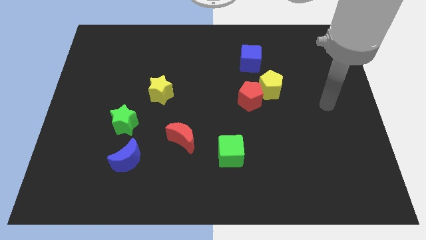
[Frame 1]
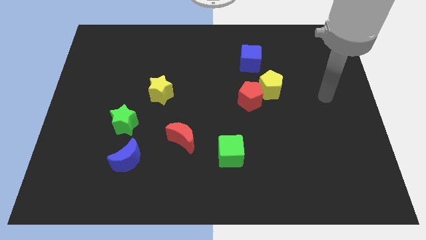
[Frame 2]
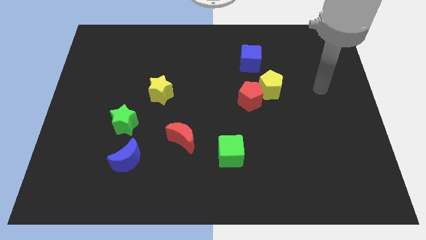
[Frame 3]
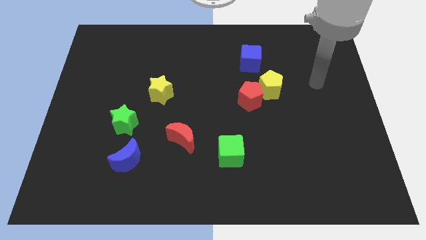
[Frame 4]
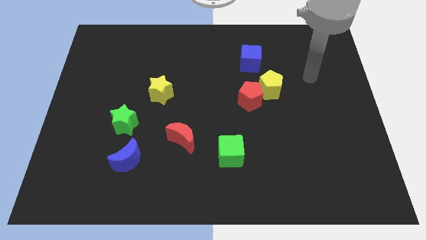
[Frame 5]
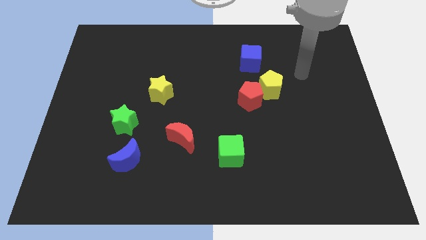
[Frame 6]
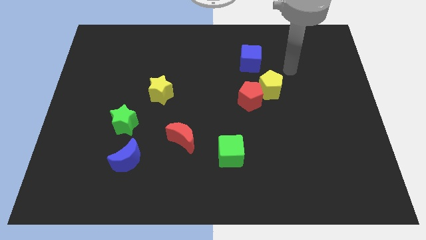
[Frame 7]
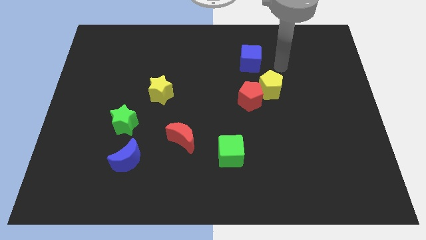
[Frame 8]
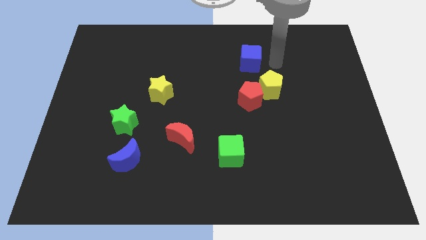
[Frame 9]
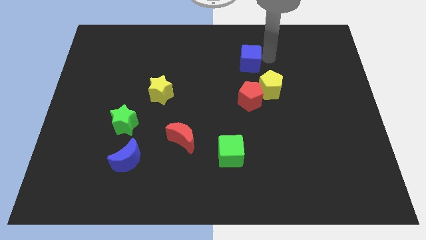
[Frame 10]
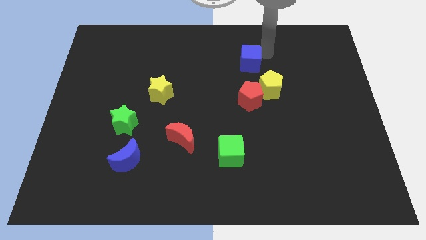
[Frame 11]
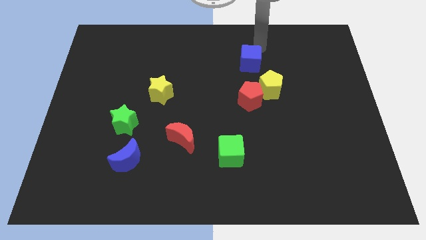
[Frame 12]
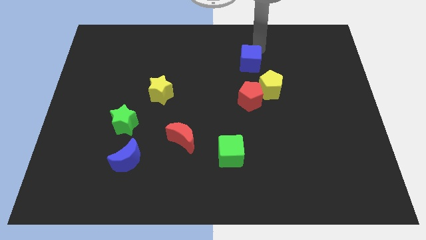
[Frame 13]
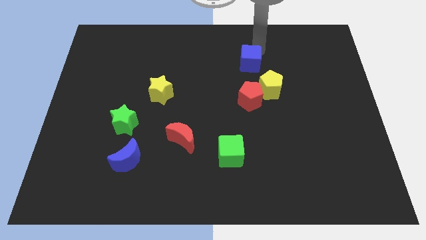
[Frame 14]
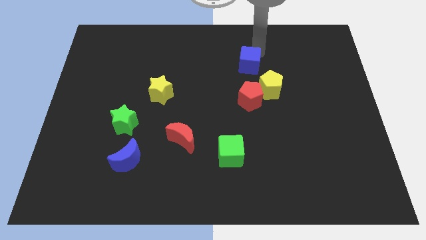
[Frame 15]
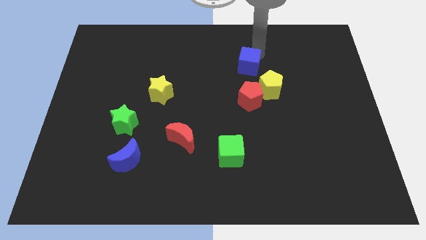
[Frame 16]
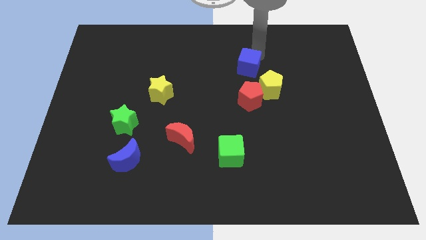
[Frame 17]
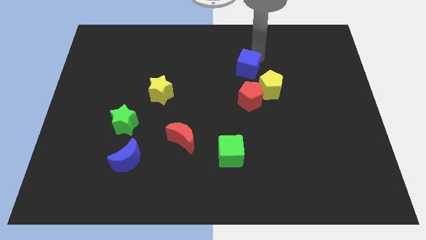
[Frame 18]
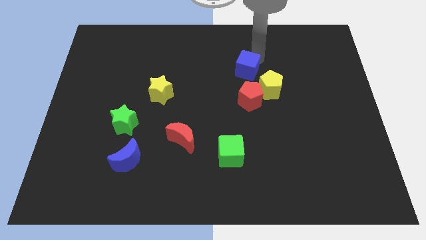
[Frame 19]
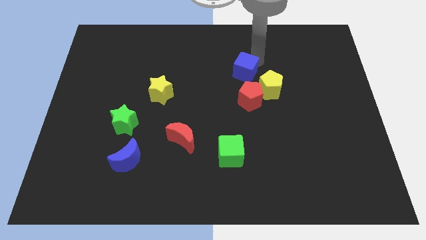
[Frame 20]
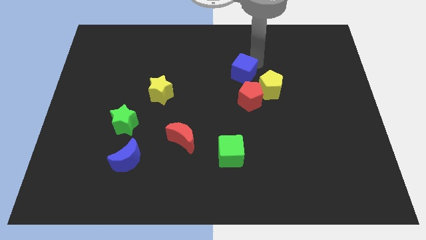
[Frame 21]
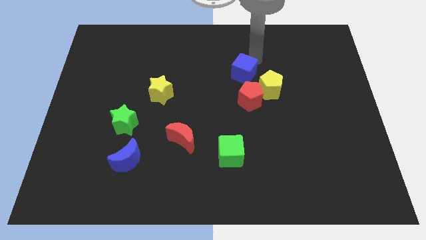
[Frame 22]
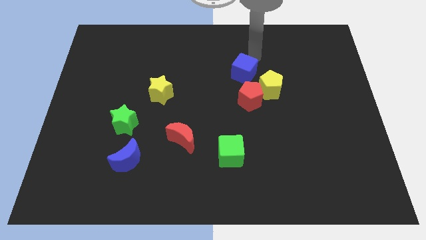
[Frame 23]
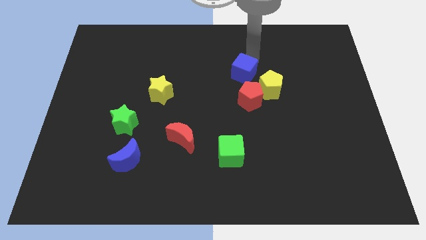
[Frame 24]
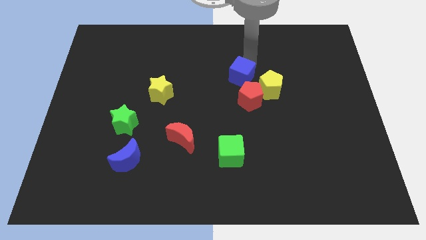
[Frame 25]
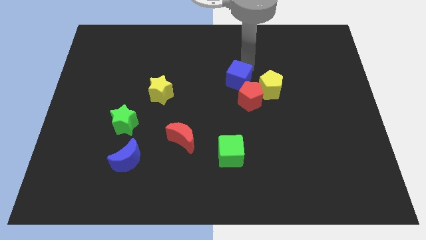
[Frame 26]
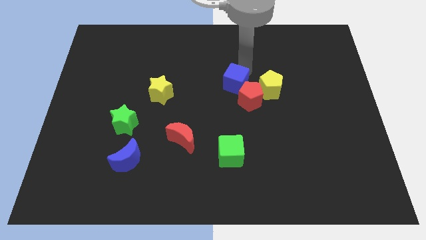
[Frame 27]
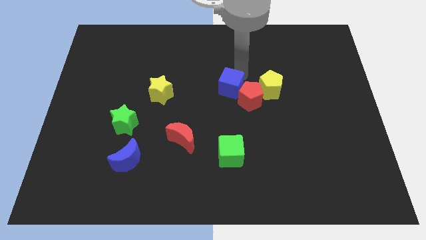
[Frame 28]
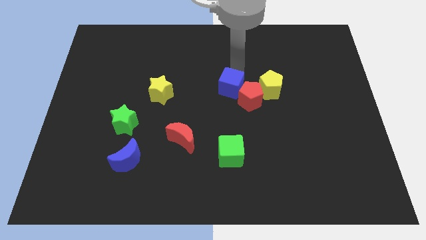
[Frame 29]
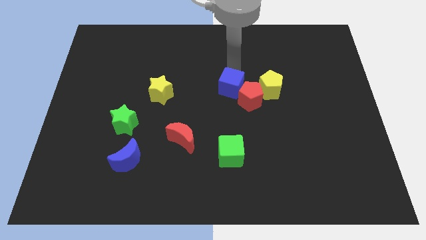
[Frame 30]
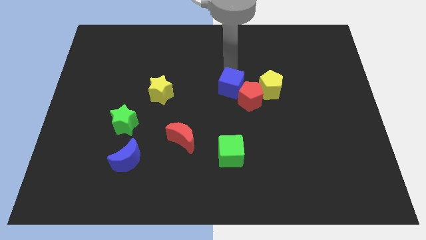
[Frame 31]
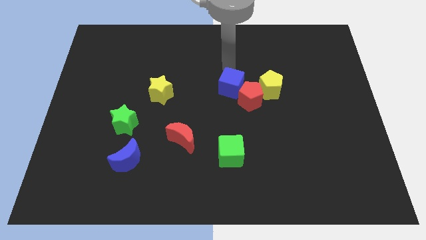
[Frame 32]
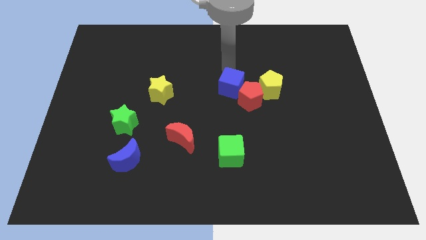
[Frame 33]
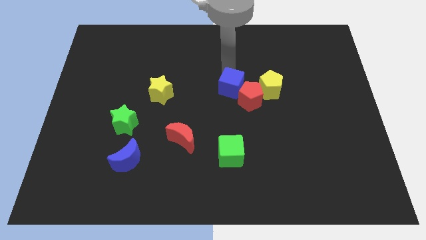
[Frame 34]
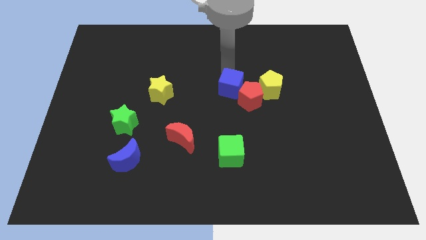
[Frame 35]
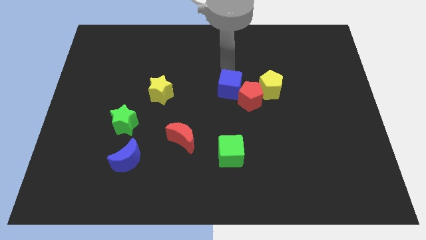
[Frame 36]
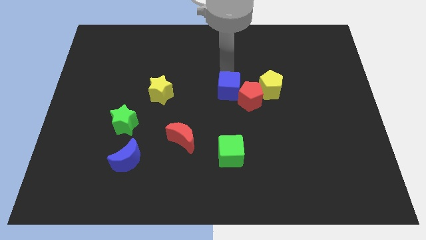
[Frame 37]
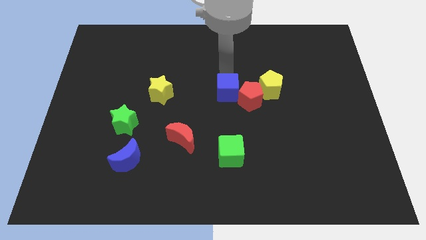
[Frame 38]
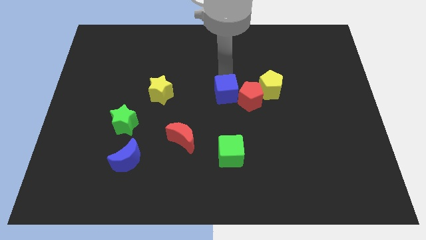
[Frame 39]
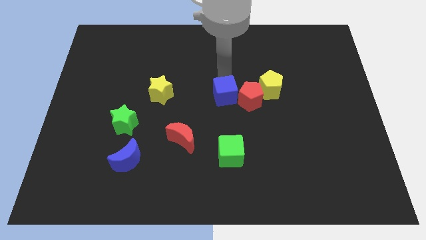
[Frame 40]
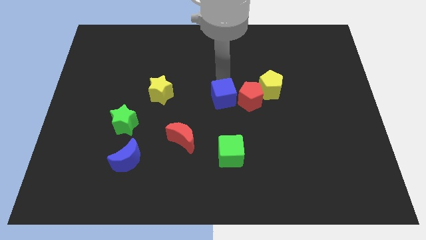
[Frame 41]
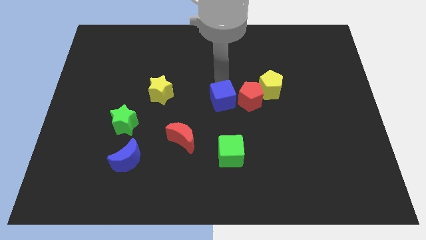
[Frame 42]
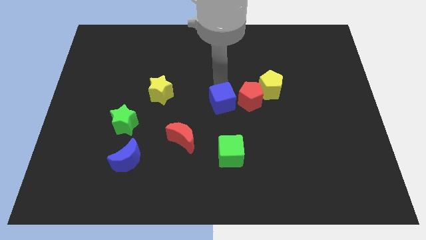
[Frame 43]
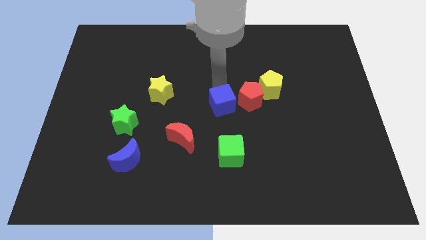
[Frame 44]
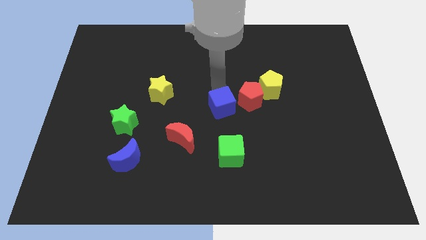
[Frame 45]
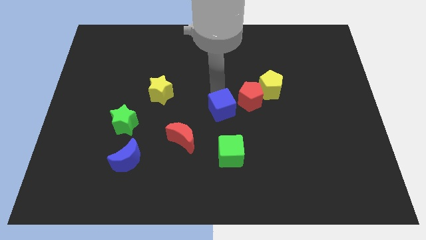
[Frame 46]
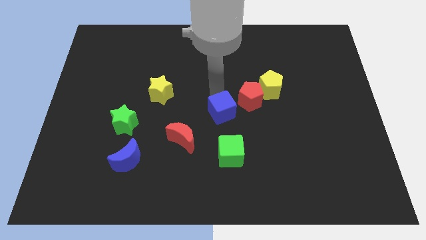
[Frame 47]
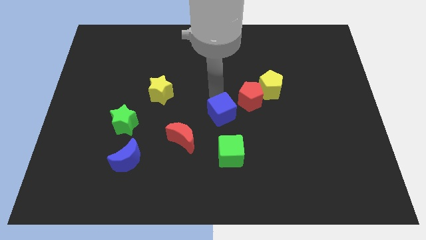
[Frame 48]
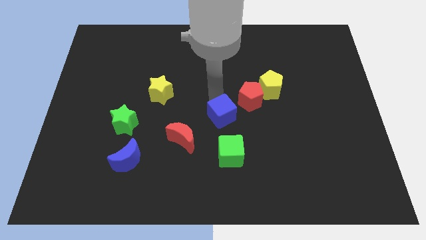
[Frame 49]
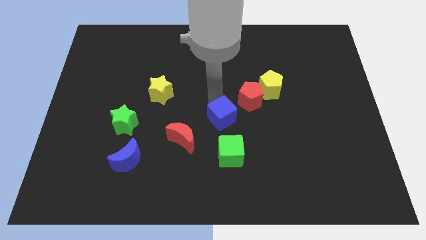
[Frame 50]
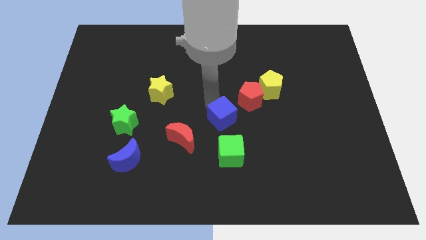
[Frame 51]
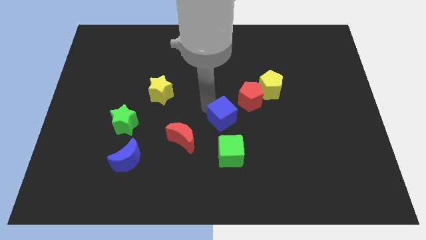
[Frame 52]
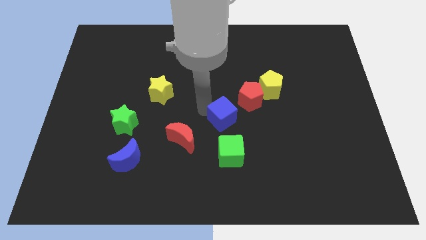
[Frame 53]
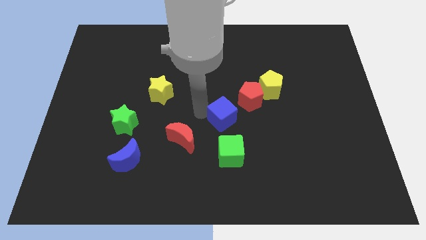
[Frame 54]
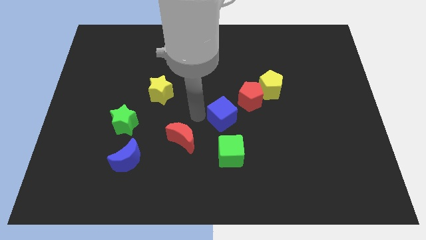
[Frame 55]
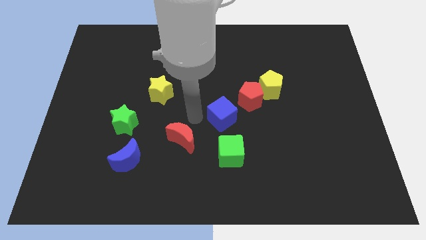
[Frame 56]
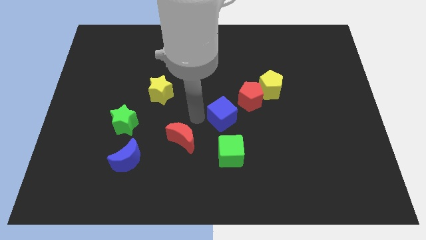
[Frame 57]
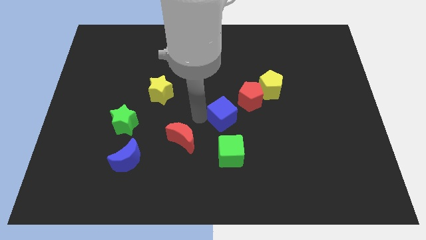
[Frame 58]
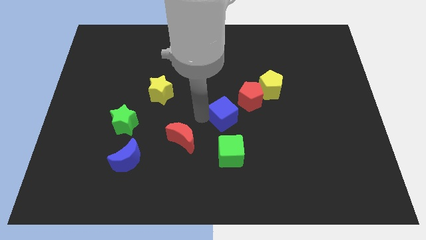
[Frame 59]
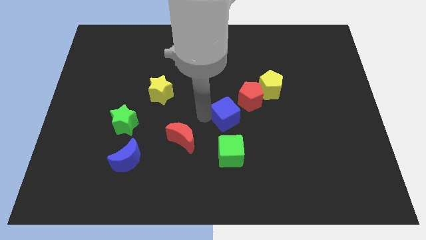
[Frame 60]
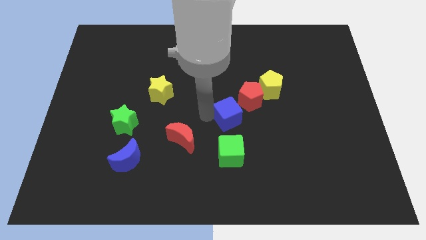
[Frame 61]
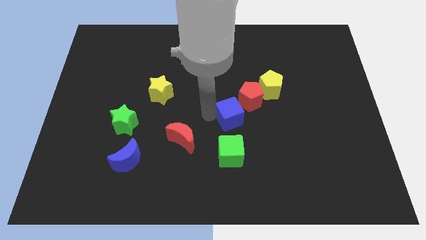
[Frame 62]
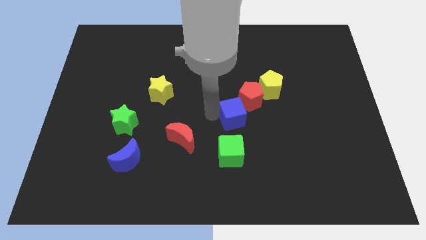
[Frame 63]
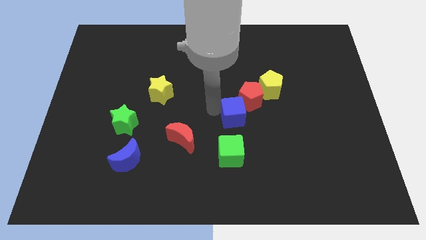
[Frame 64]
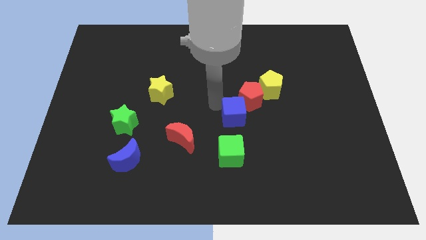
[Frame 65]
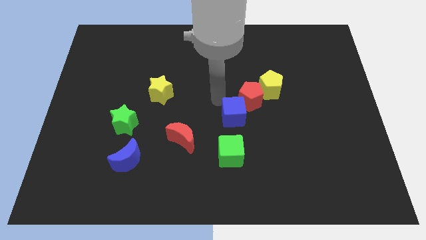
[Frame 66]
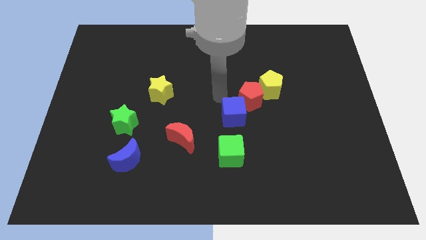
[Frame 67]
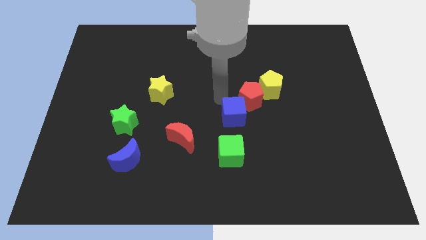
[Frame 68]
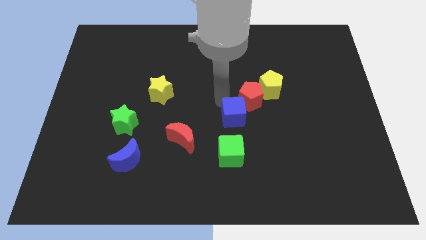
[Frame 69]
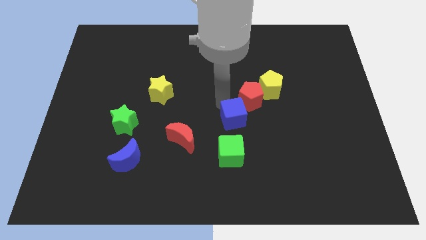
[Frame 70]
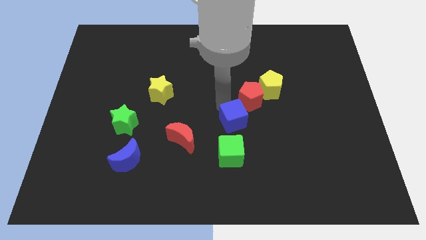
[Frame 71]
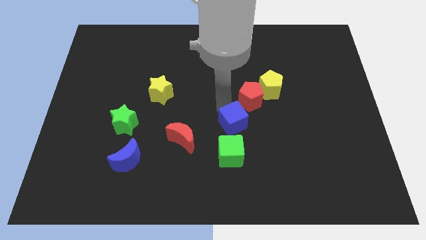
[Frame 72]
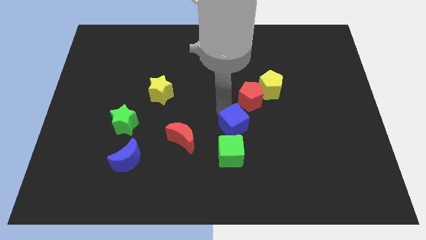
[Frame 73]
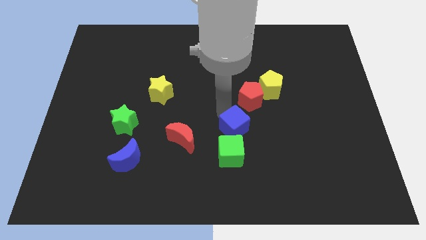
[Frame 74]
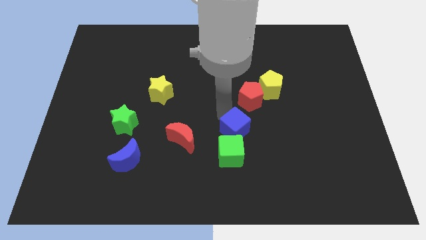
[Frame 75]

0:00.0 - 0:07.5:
move the blue cube downwards

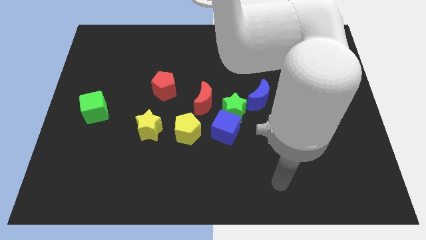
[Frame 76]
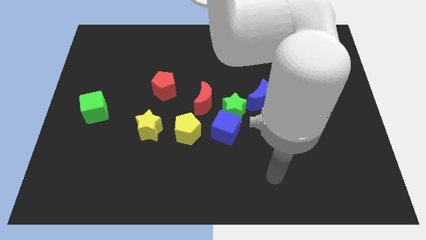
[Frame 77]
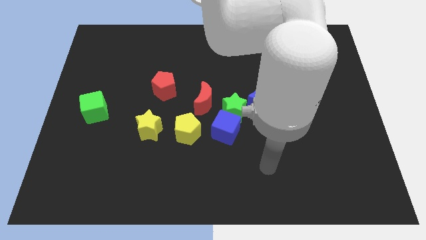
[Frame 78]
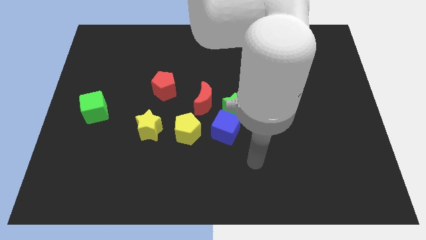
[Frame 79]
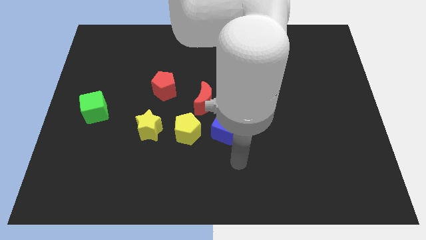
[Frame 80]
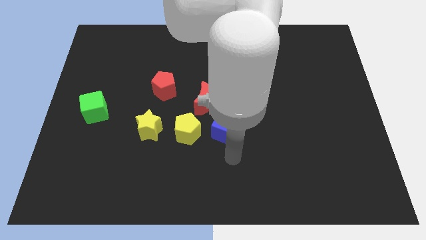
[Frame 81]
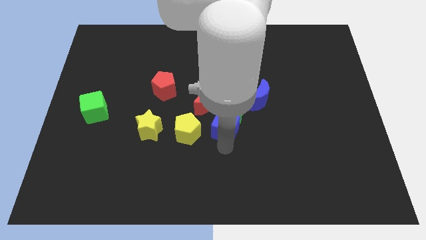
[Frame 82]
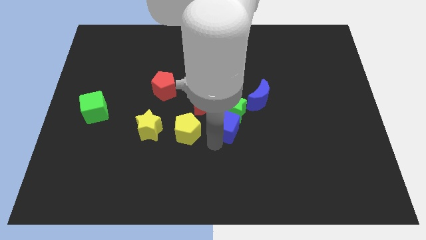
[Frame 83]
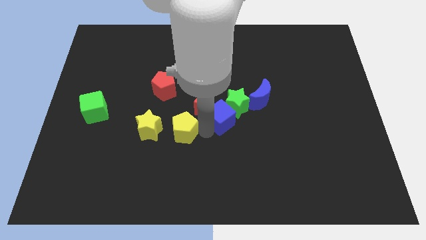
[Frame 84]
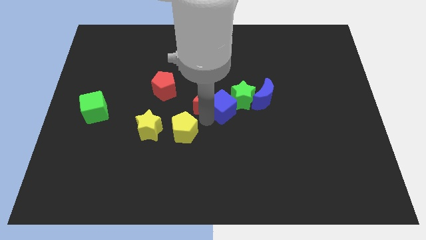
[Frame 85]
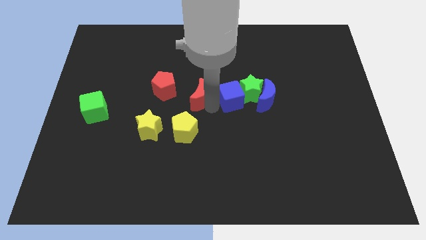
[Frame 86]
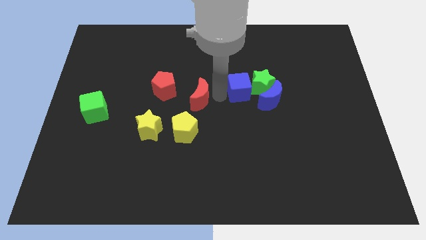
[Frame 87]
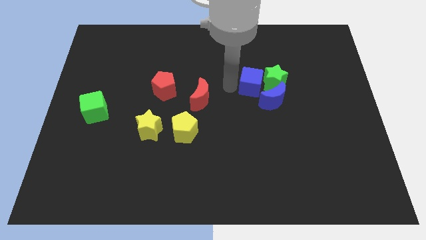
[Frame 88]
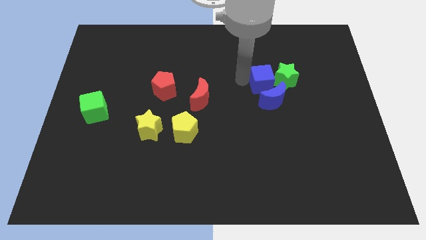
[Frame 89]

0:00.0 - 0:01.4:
slide the green star to the right a little bit
